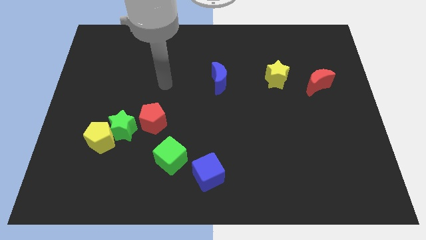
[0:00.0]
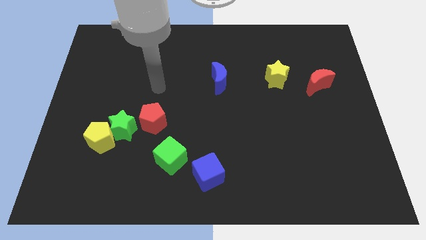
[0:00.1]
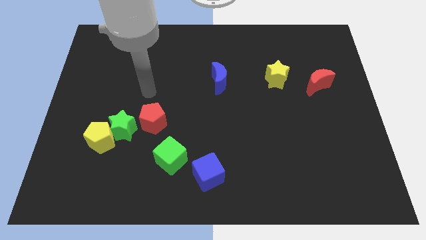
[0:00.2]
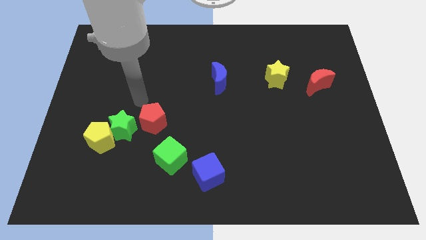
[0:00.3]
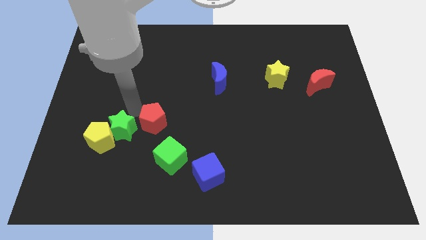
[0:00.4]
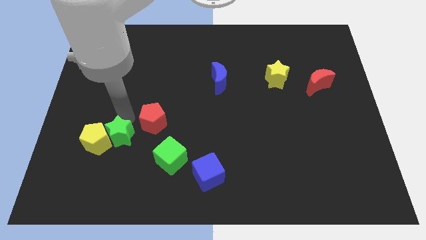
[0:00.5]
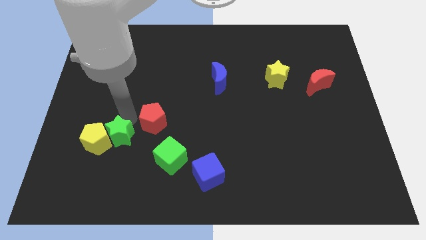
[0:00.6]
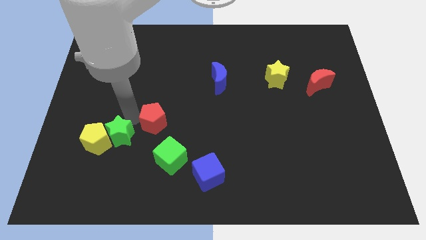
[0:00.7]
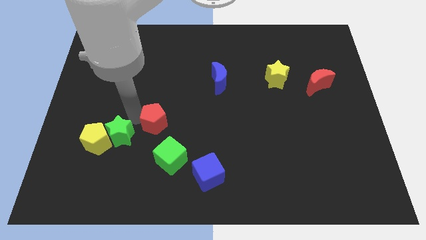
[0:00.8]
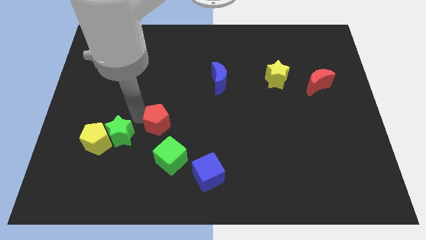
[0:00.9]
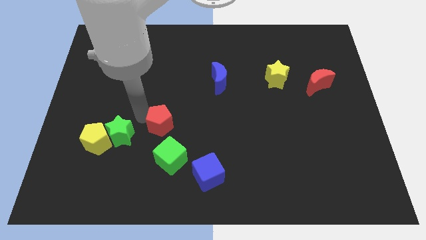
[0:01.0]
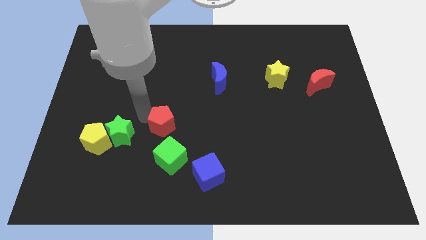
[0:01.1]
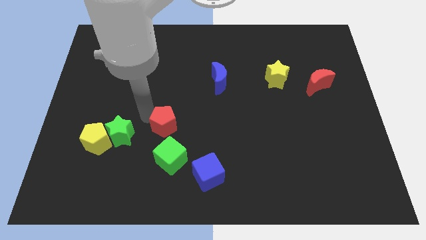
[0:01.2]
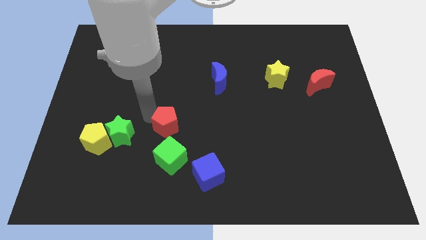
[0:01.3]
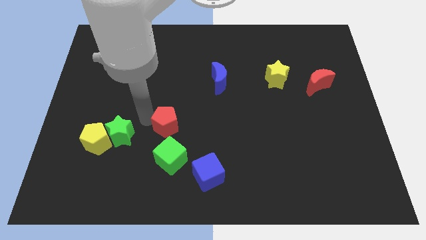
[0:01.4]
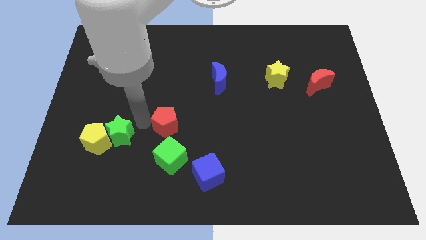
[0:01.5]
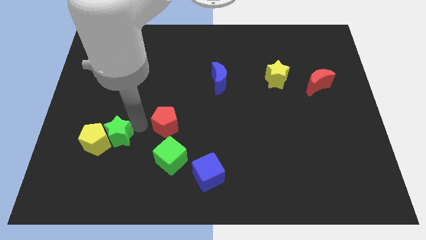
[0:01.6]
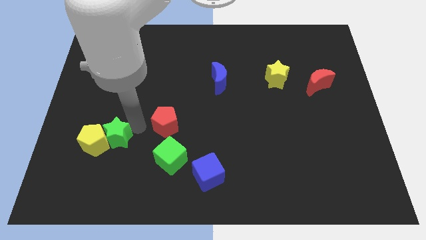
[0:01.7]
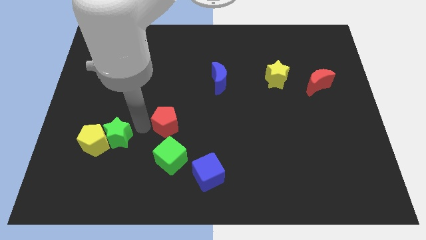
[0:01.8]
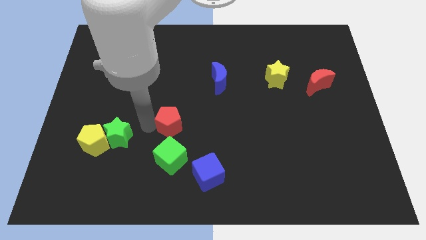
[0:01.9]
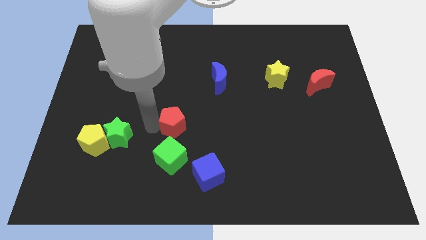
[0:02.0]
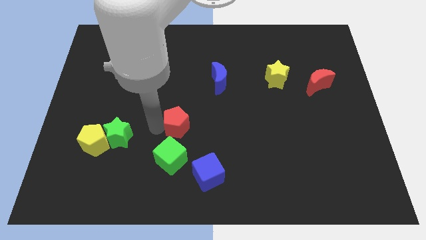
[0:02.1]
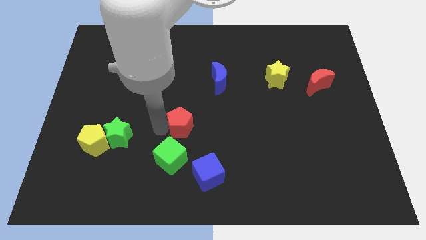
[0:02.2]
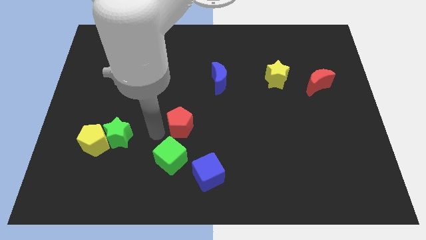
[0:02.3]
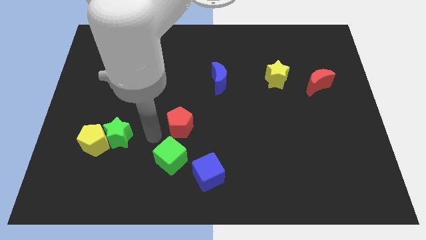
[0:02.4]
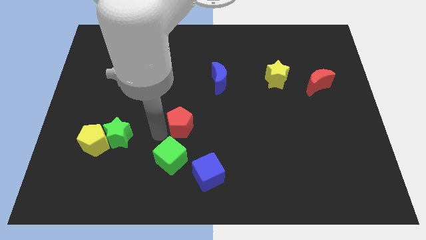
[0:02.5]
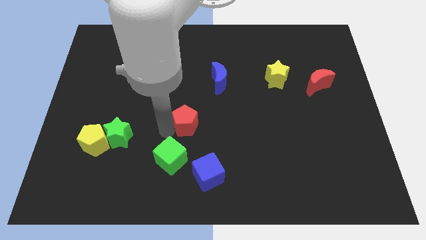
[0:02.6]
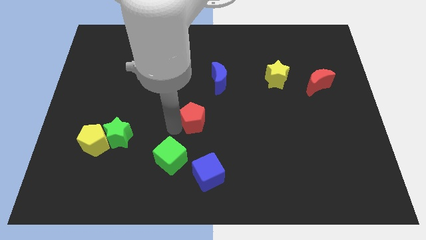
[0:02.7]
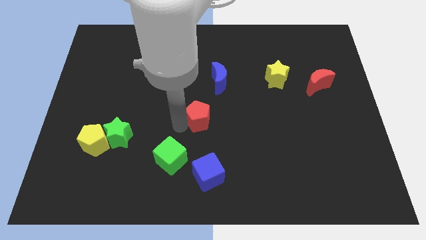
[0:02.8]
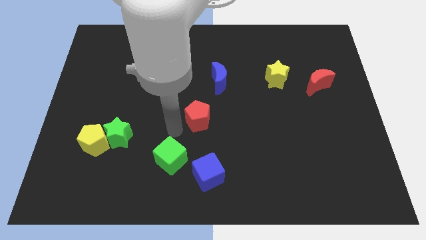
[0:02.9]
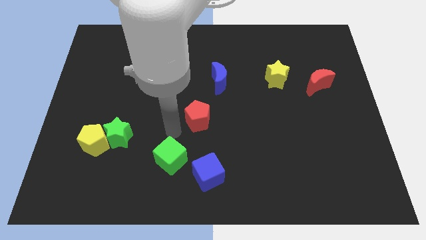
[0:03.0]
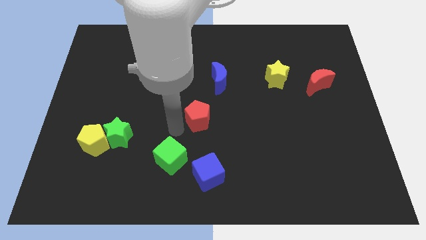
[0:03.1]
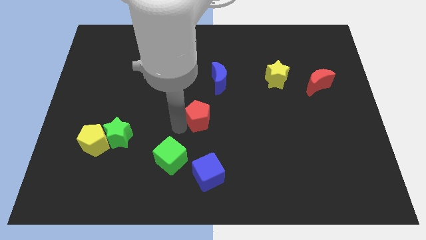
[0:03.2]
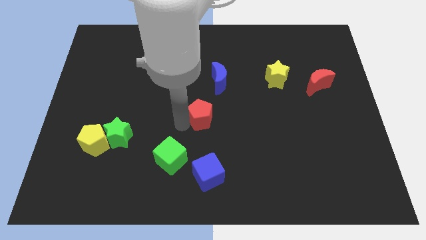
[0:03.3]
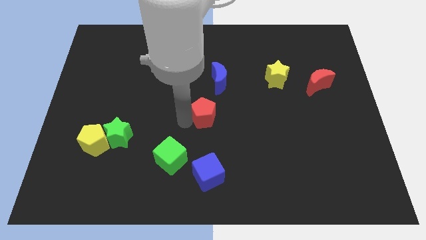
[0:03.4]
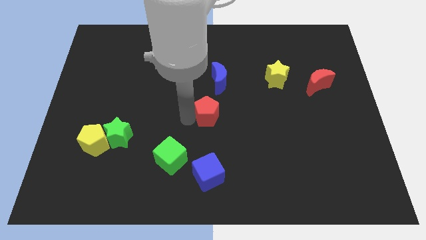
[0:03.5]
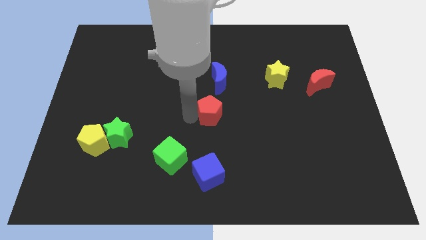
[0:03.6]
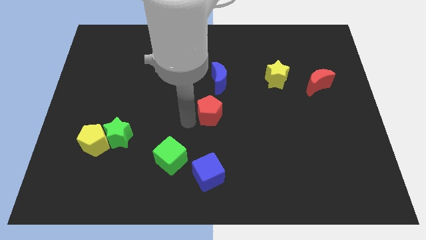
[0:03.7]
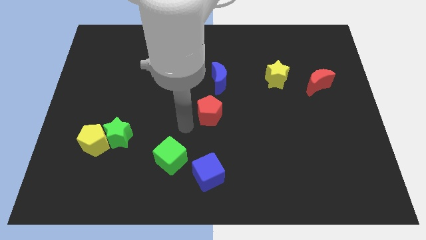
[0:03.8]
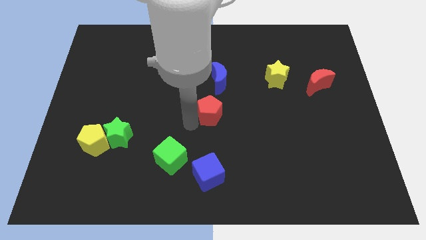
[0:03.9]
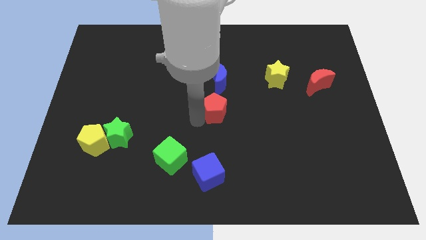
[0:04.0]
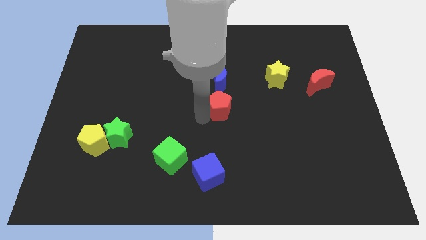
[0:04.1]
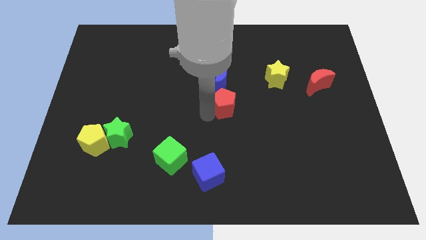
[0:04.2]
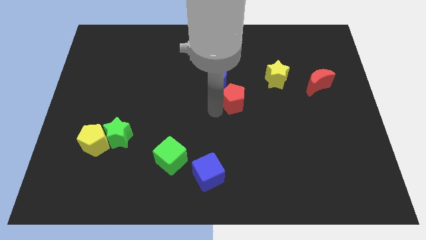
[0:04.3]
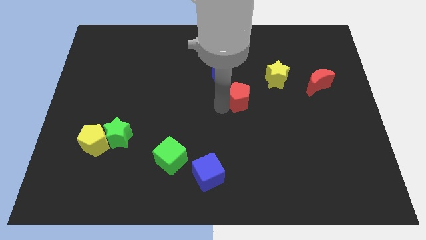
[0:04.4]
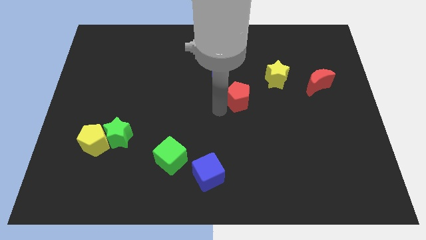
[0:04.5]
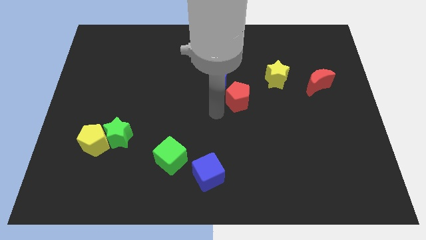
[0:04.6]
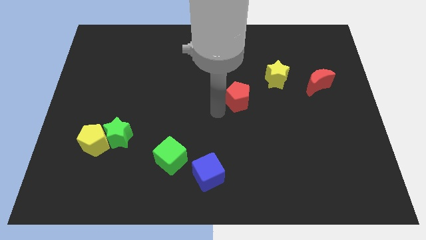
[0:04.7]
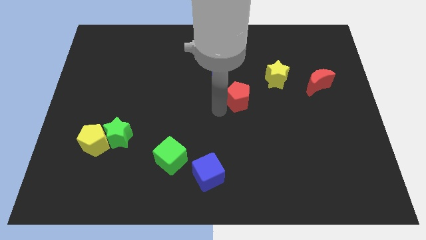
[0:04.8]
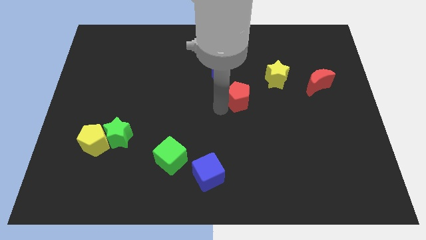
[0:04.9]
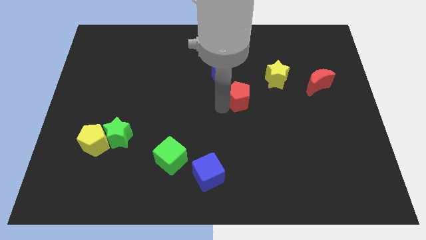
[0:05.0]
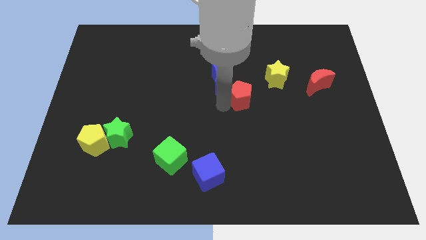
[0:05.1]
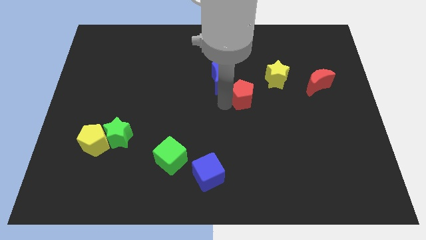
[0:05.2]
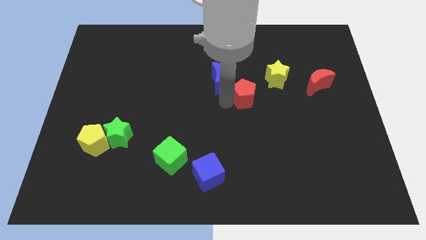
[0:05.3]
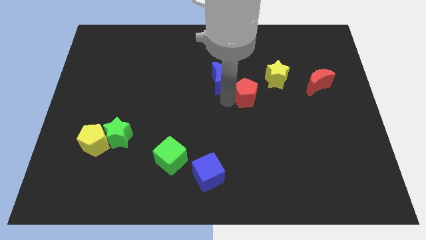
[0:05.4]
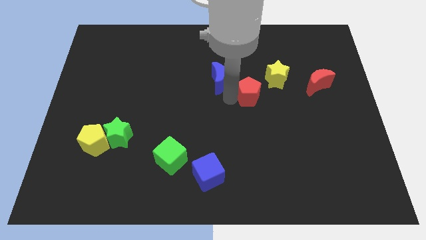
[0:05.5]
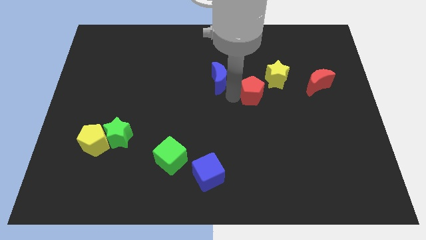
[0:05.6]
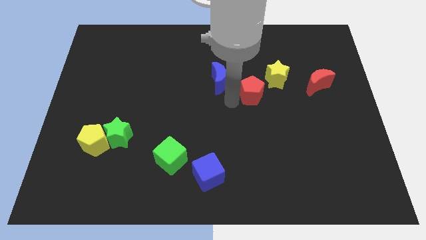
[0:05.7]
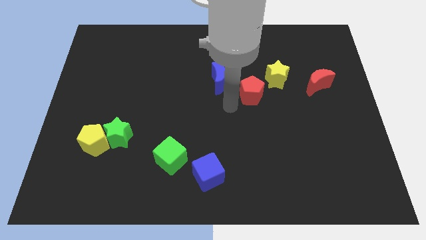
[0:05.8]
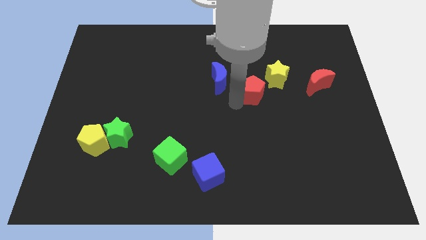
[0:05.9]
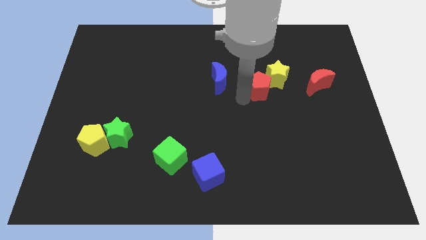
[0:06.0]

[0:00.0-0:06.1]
move the red pentagon to the yellow star

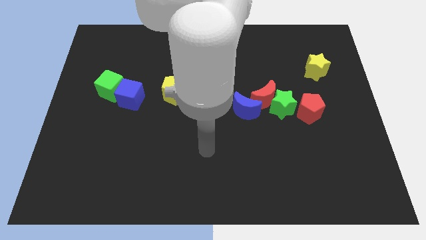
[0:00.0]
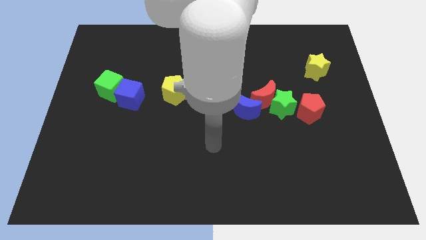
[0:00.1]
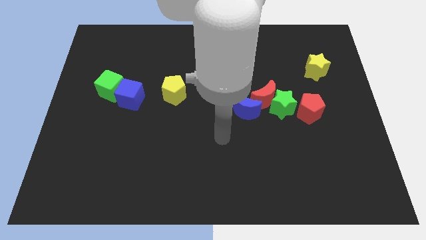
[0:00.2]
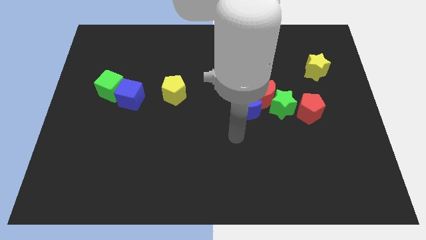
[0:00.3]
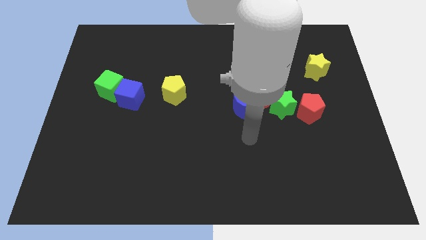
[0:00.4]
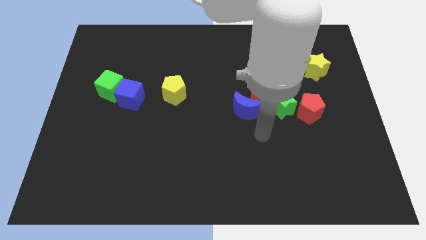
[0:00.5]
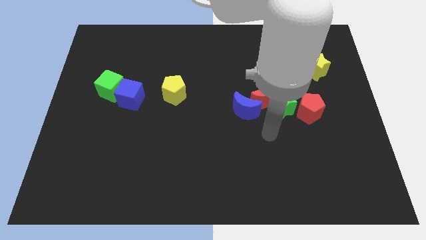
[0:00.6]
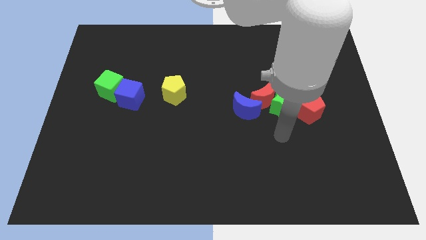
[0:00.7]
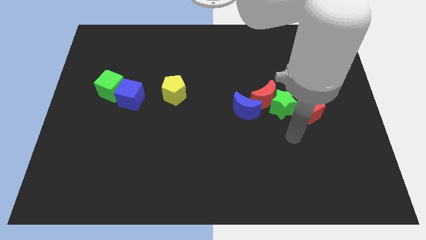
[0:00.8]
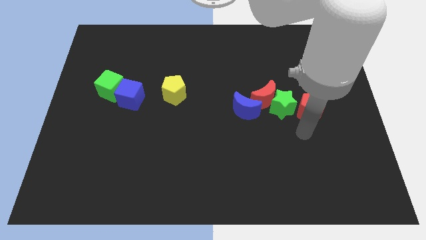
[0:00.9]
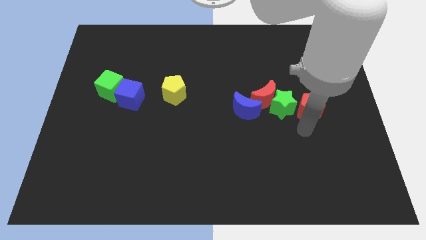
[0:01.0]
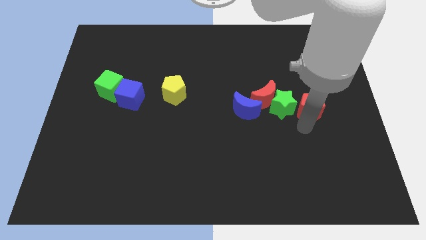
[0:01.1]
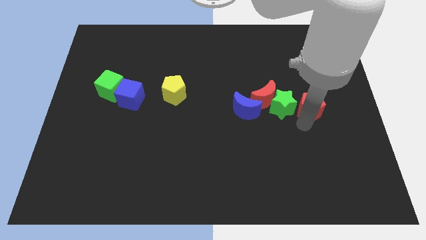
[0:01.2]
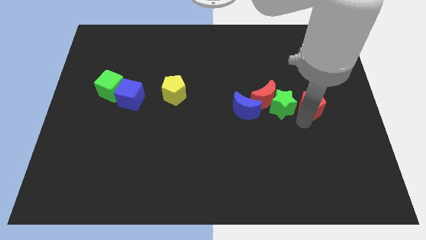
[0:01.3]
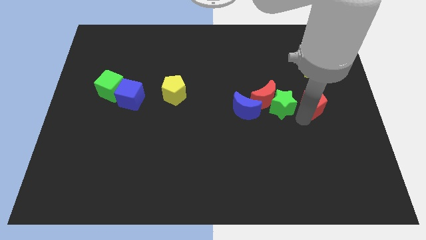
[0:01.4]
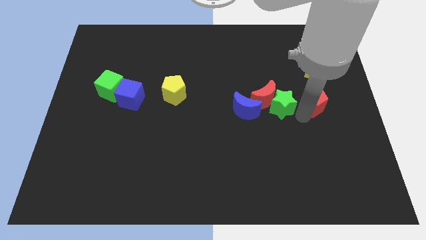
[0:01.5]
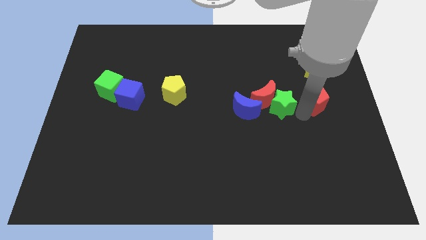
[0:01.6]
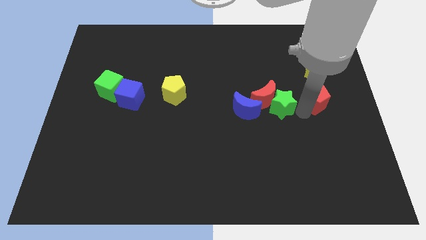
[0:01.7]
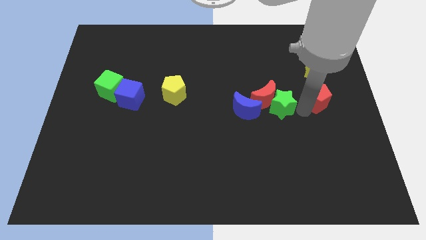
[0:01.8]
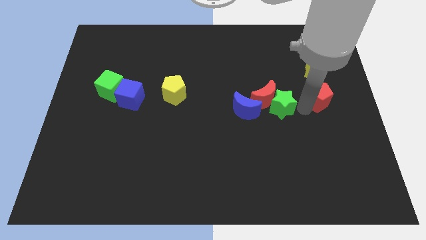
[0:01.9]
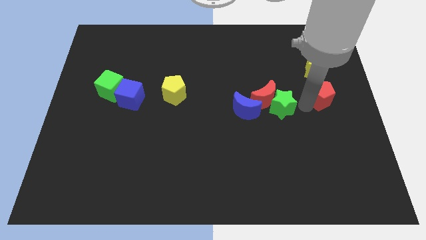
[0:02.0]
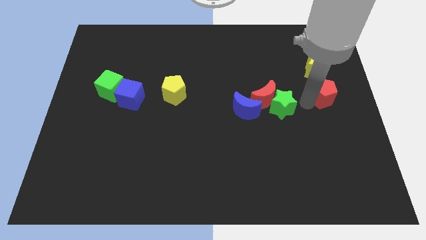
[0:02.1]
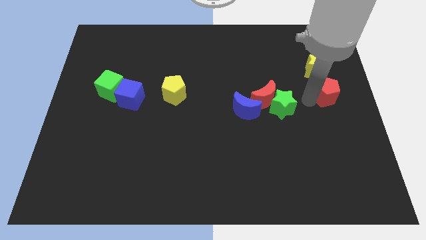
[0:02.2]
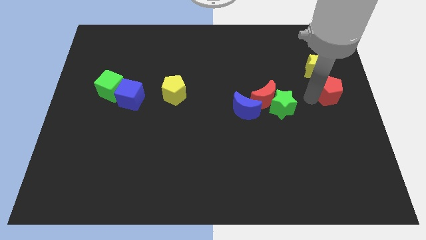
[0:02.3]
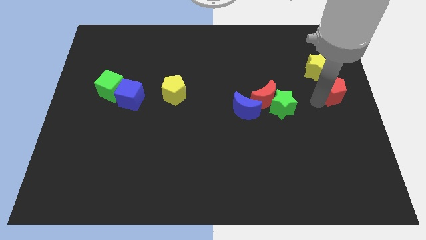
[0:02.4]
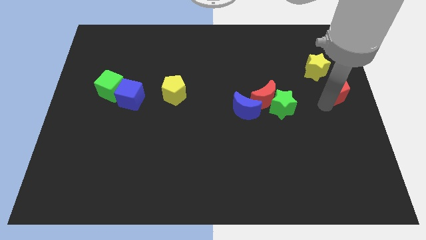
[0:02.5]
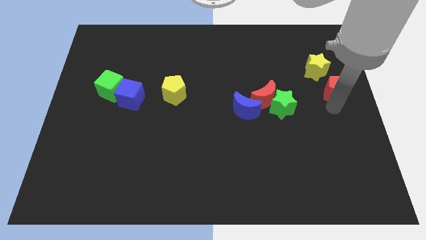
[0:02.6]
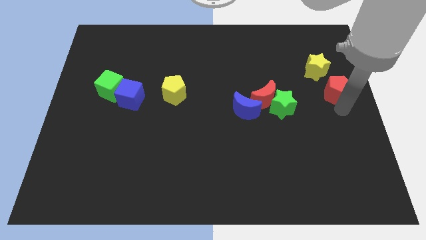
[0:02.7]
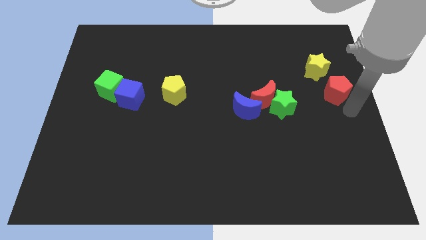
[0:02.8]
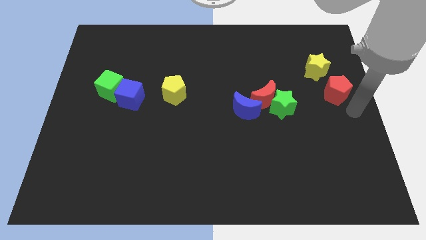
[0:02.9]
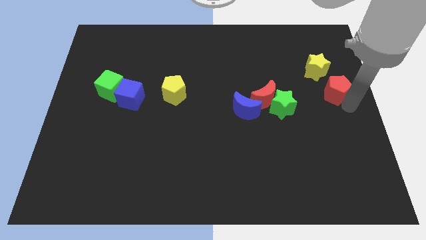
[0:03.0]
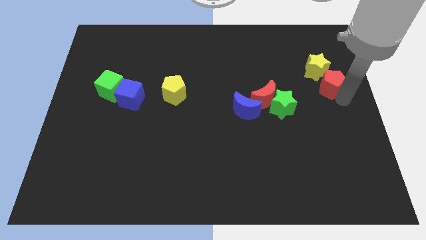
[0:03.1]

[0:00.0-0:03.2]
slide the red pentagon next to the yellow star
